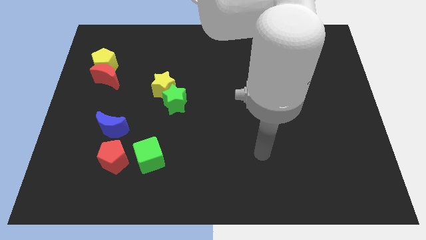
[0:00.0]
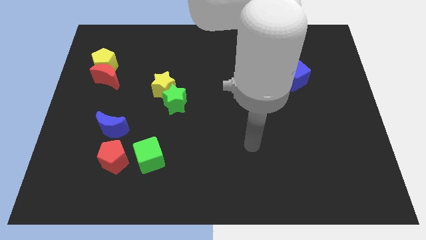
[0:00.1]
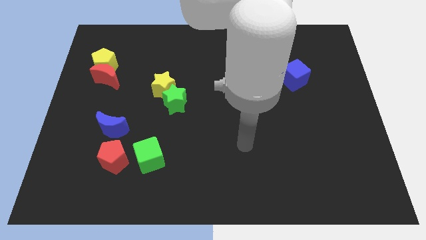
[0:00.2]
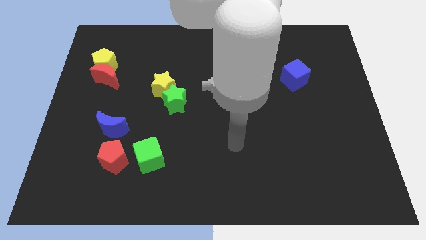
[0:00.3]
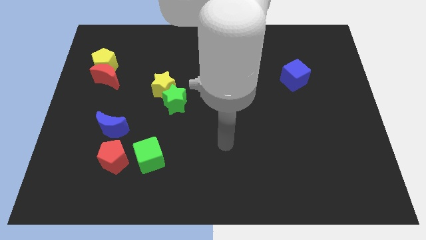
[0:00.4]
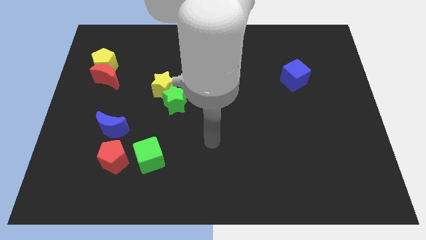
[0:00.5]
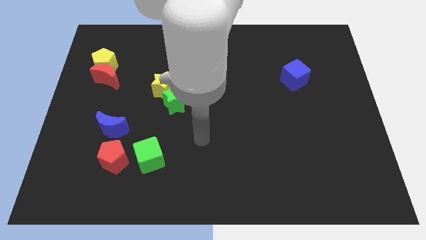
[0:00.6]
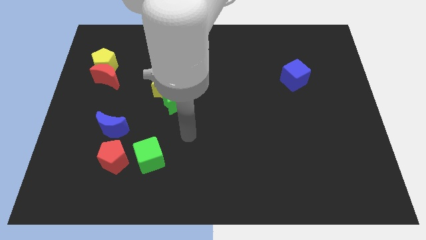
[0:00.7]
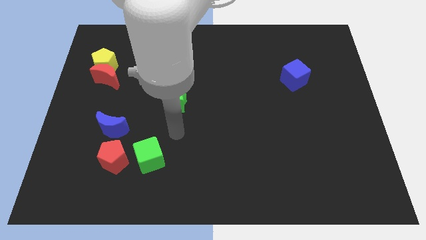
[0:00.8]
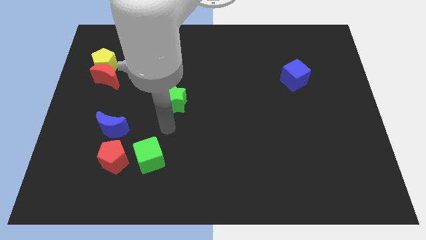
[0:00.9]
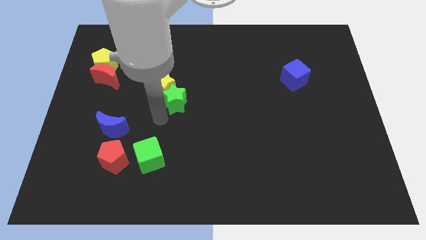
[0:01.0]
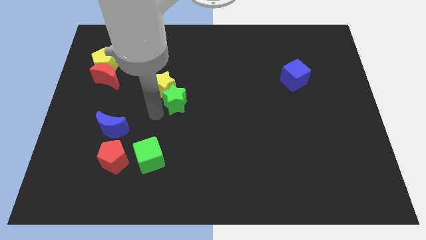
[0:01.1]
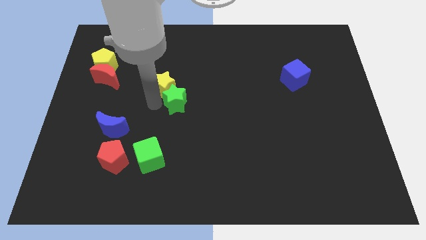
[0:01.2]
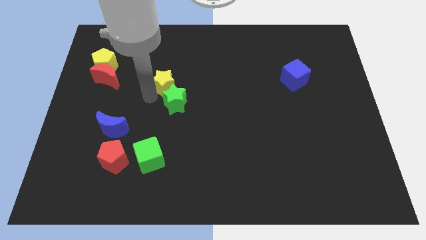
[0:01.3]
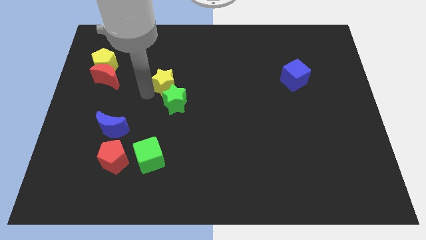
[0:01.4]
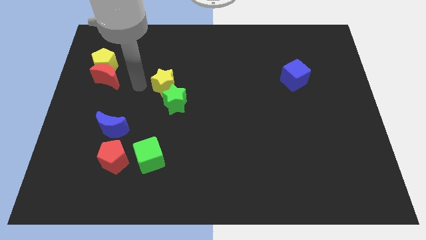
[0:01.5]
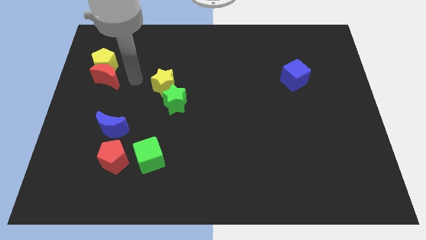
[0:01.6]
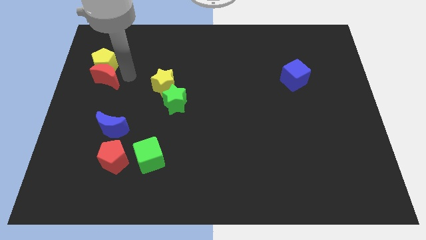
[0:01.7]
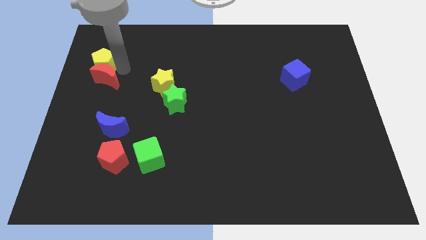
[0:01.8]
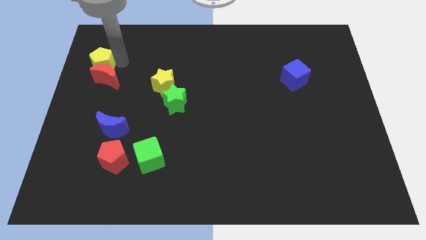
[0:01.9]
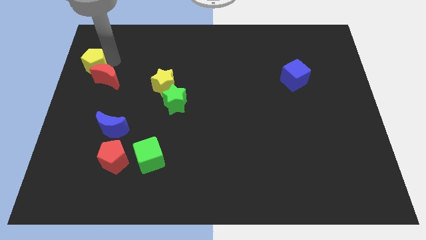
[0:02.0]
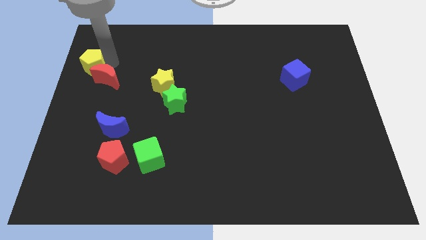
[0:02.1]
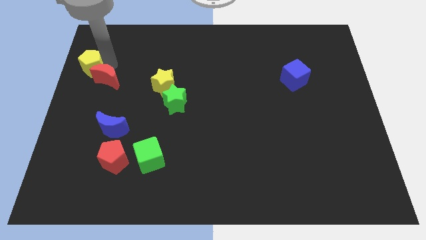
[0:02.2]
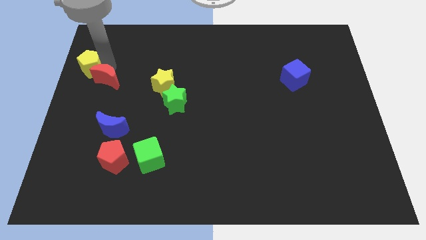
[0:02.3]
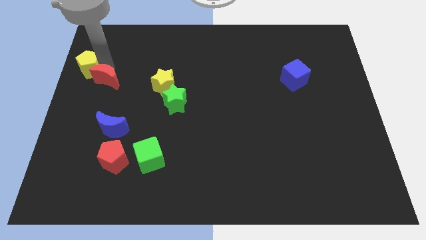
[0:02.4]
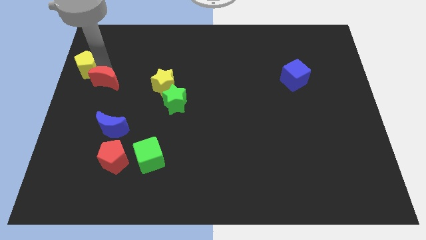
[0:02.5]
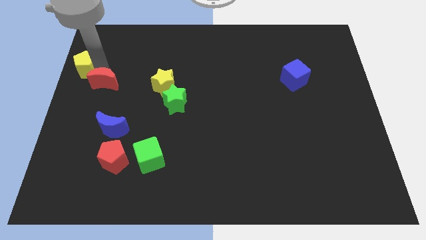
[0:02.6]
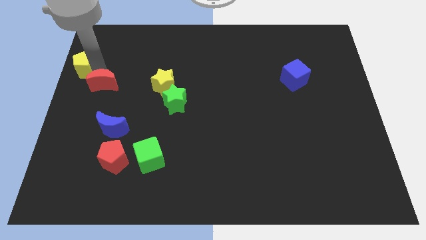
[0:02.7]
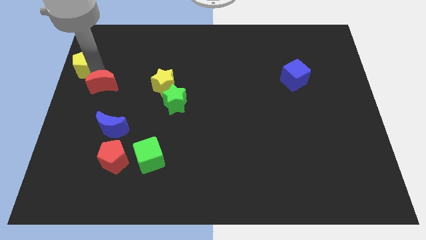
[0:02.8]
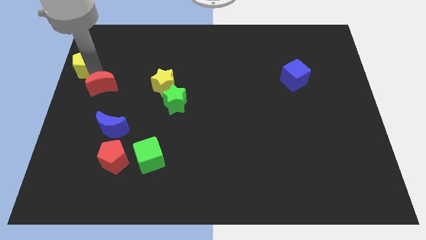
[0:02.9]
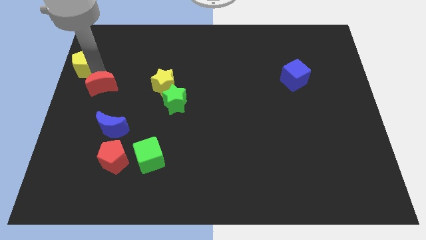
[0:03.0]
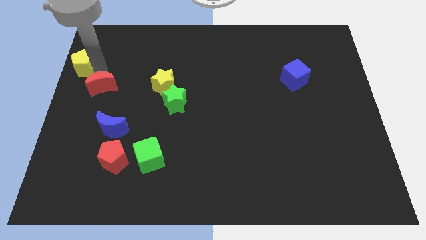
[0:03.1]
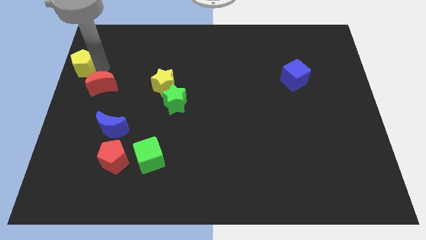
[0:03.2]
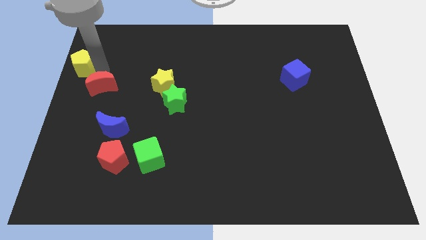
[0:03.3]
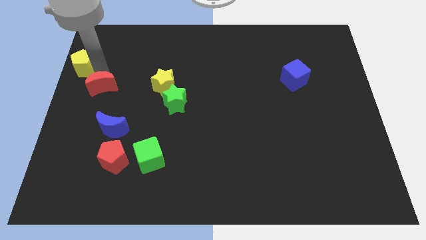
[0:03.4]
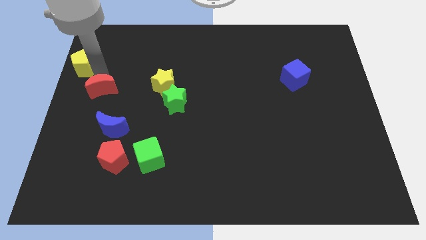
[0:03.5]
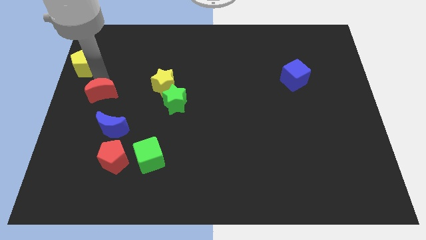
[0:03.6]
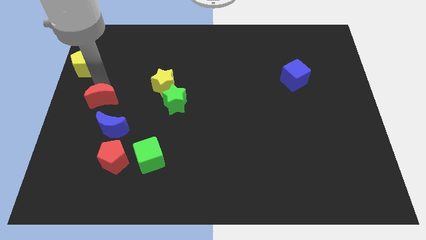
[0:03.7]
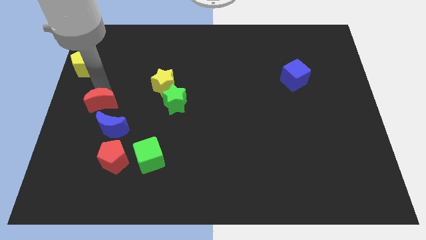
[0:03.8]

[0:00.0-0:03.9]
push the red moon somewhat down

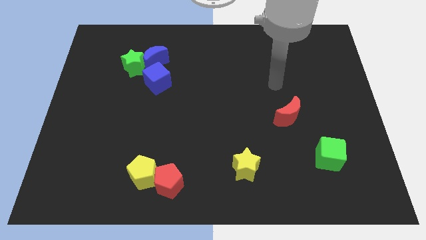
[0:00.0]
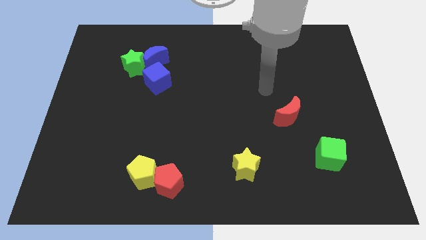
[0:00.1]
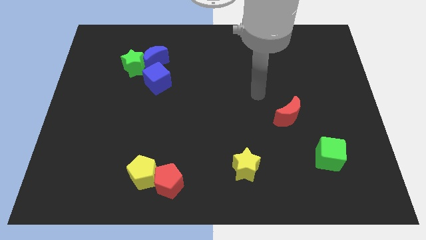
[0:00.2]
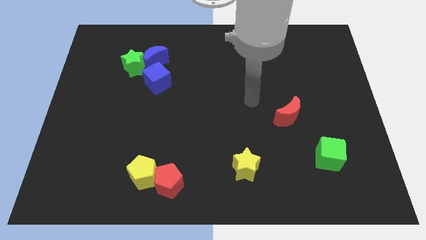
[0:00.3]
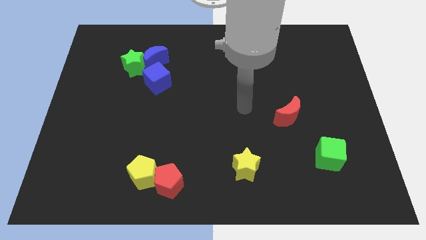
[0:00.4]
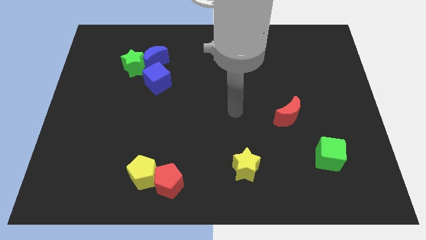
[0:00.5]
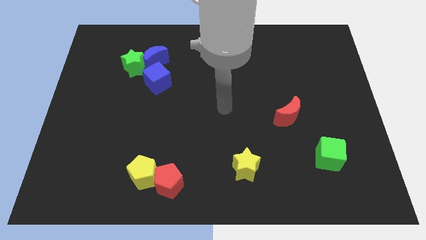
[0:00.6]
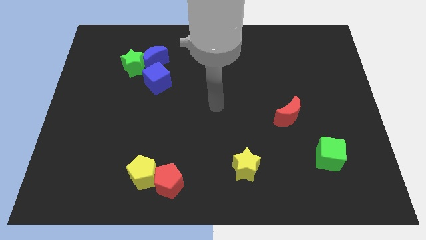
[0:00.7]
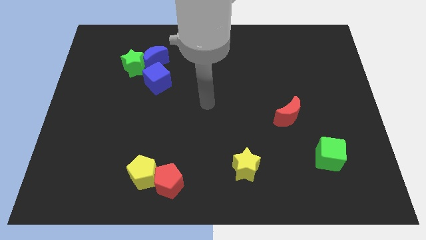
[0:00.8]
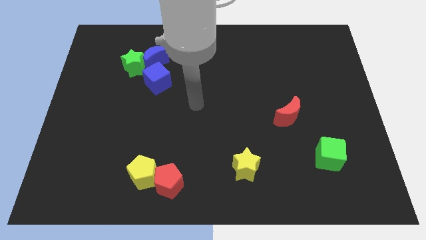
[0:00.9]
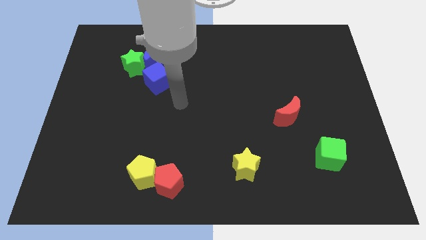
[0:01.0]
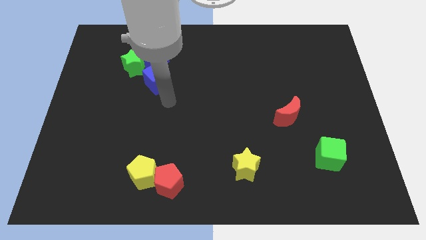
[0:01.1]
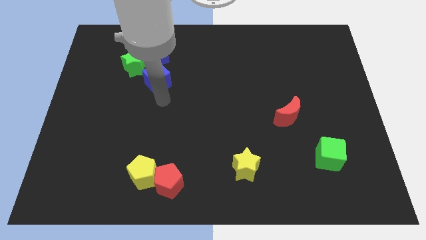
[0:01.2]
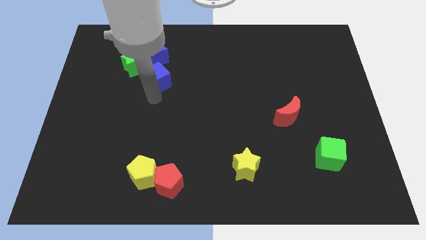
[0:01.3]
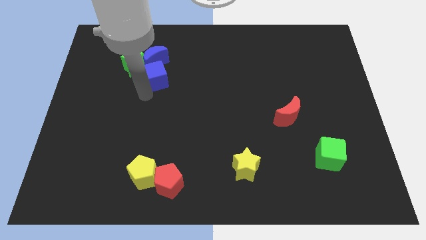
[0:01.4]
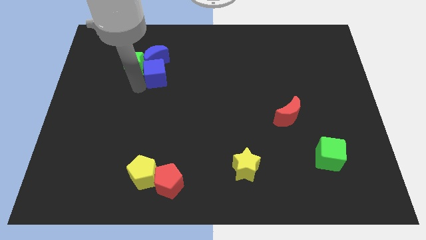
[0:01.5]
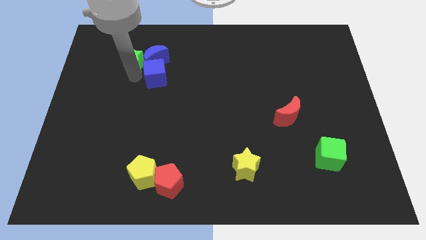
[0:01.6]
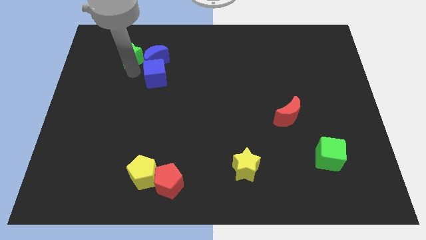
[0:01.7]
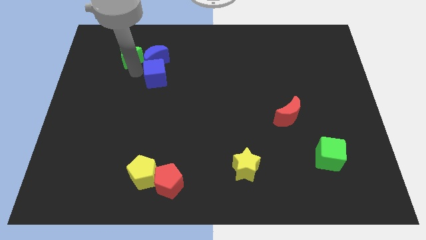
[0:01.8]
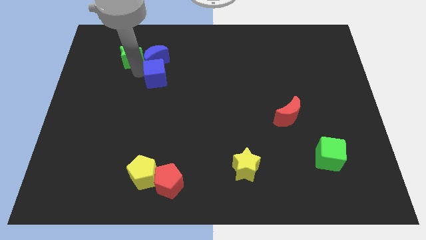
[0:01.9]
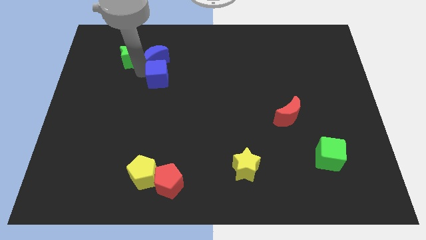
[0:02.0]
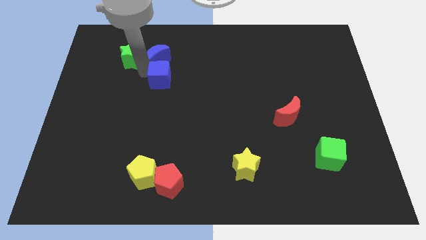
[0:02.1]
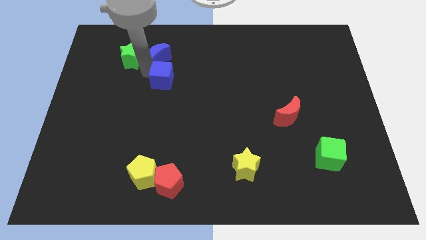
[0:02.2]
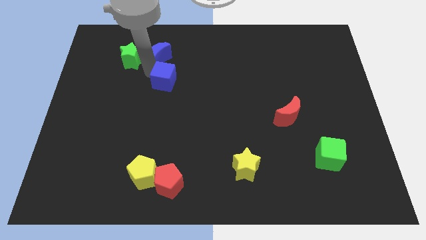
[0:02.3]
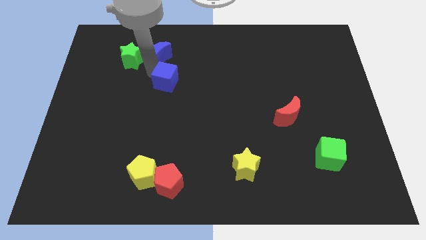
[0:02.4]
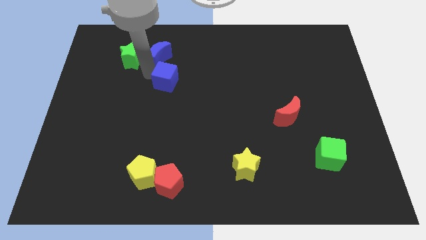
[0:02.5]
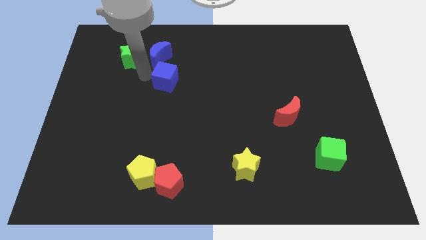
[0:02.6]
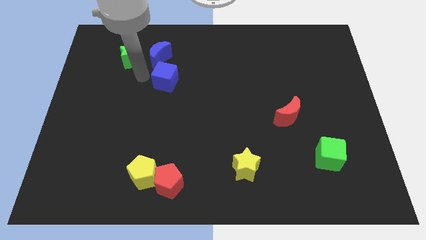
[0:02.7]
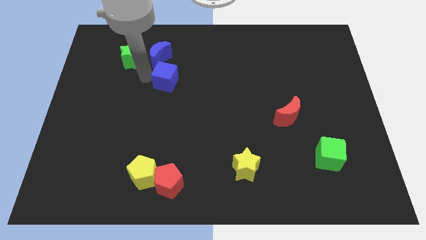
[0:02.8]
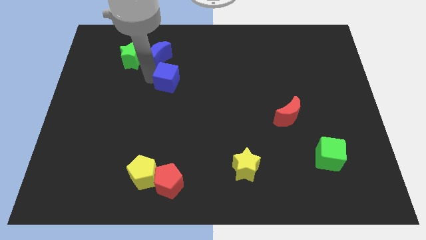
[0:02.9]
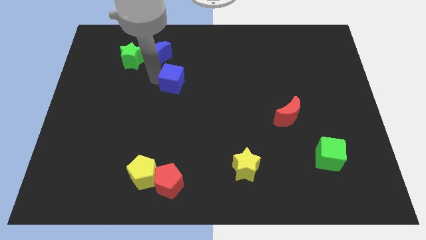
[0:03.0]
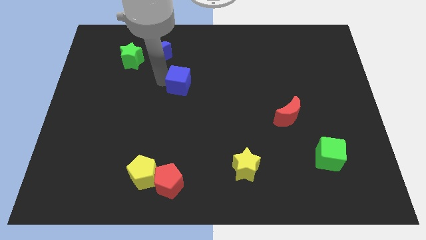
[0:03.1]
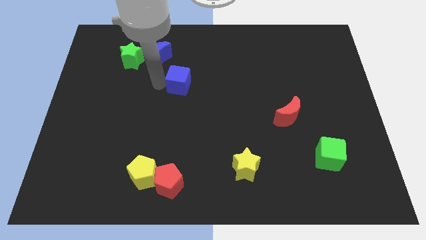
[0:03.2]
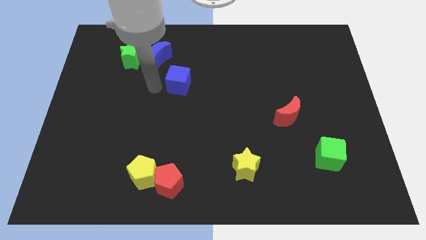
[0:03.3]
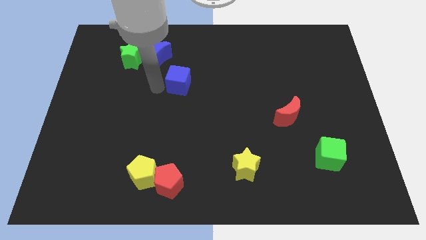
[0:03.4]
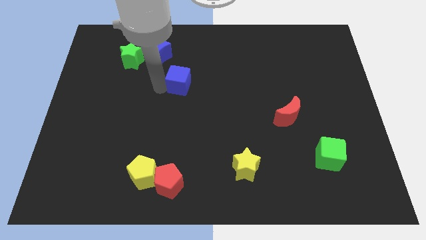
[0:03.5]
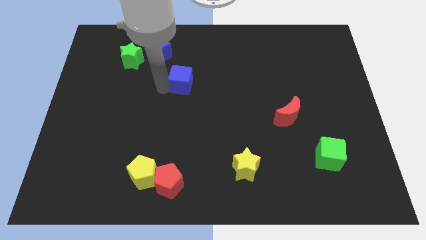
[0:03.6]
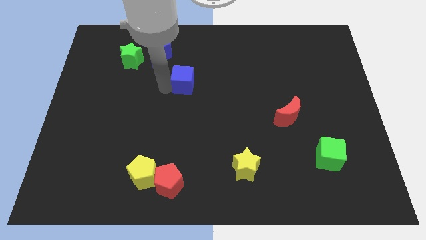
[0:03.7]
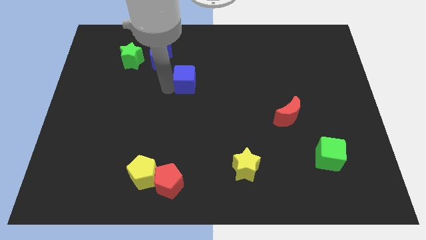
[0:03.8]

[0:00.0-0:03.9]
slightly push the blue cube right

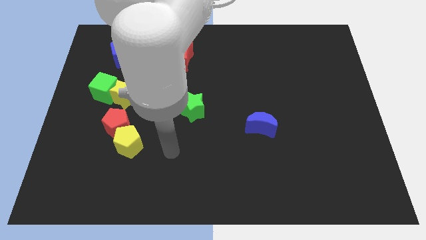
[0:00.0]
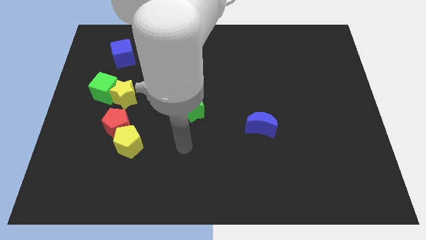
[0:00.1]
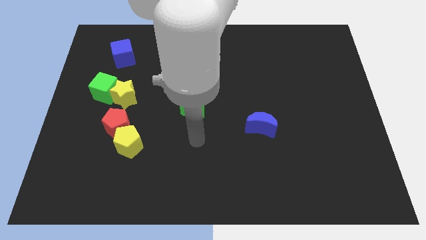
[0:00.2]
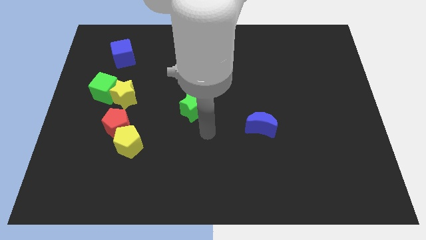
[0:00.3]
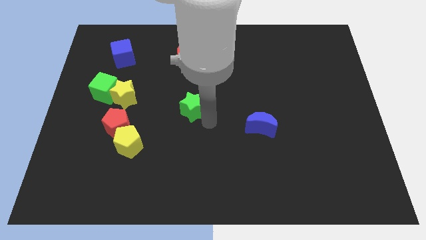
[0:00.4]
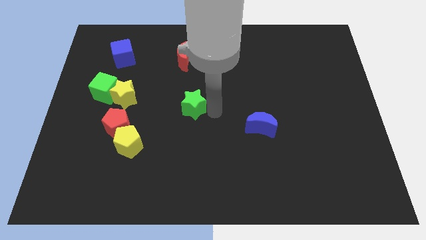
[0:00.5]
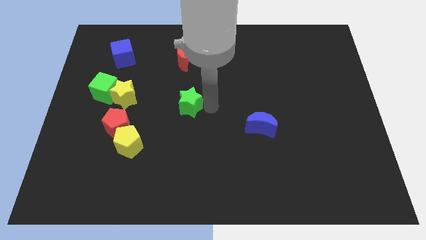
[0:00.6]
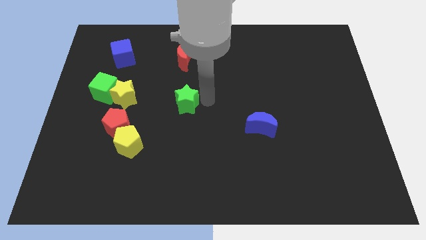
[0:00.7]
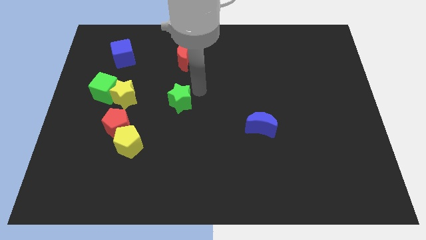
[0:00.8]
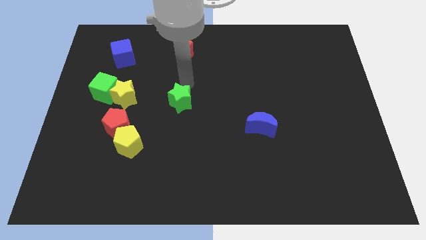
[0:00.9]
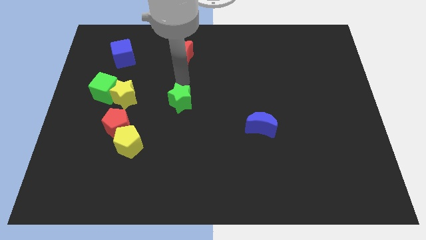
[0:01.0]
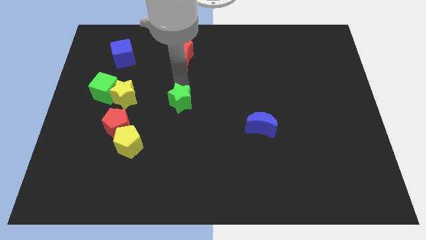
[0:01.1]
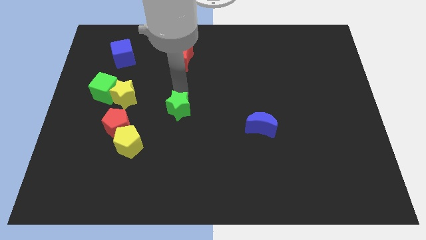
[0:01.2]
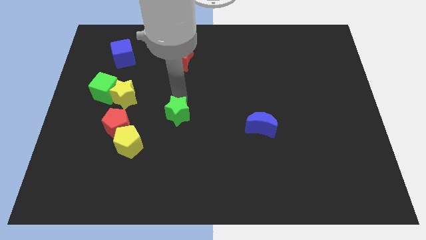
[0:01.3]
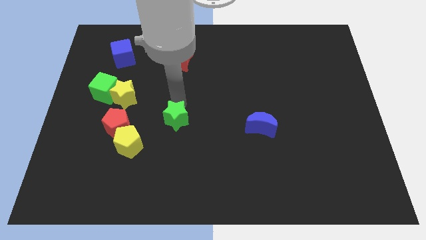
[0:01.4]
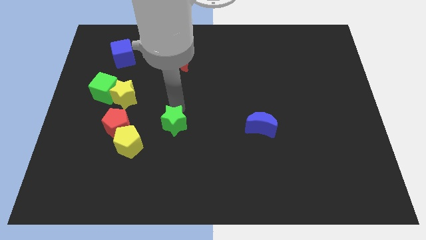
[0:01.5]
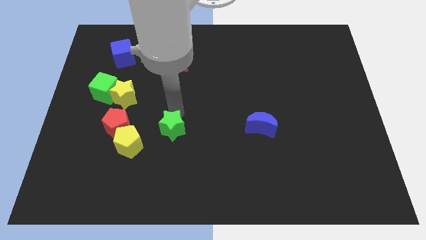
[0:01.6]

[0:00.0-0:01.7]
slide the green star downwards and left a little
